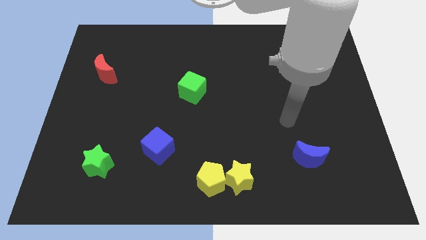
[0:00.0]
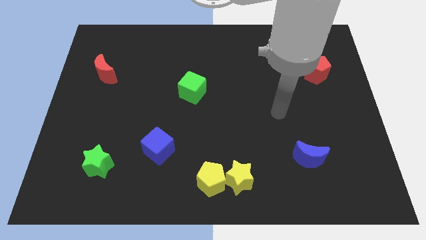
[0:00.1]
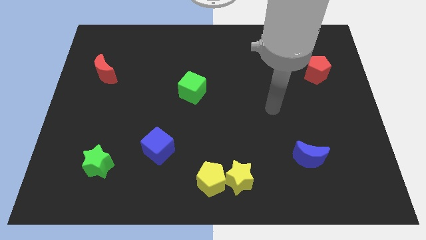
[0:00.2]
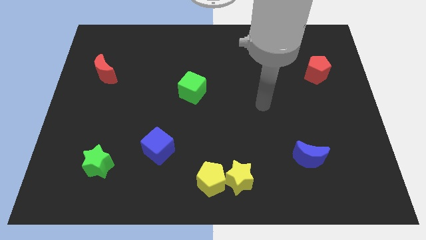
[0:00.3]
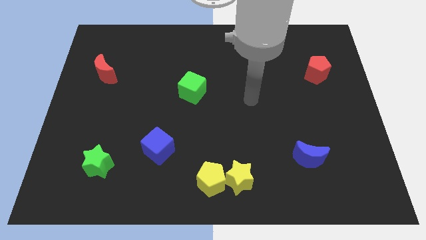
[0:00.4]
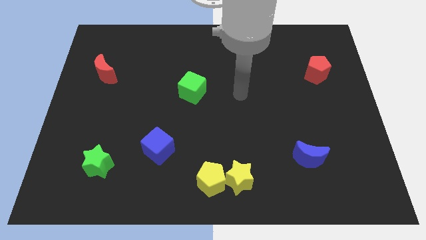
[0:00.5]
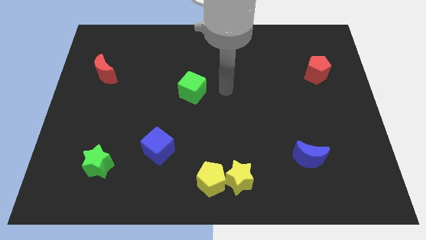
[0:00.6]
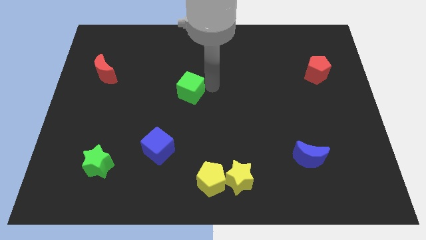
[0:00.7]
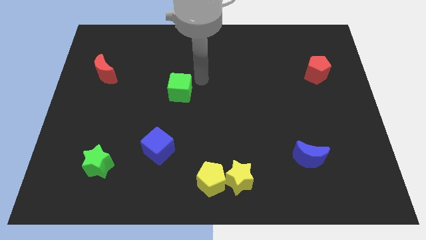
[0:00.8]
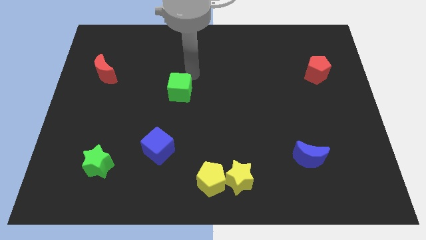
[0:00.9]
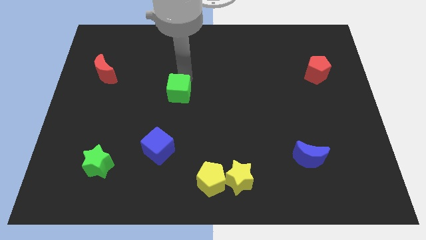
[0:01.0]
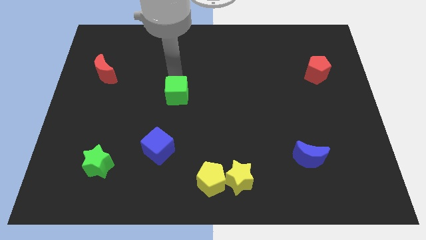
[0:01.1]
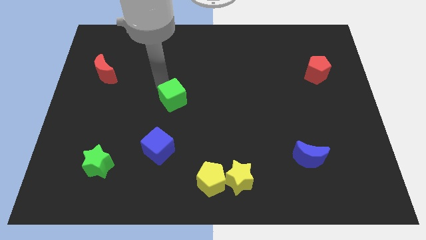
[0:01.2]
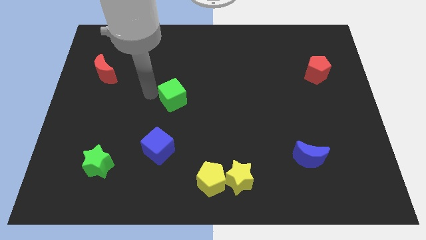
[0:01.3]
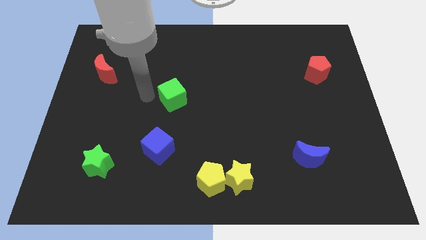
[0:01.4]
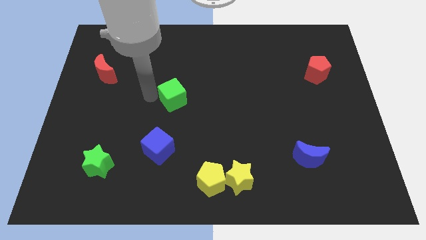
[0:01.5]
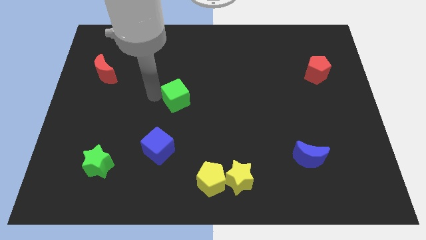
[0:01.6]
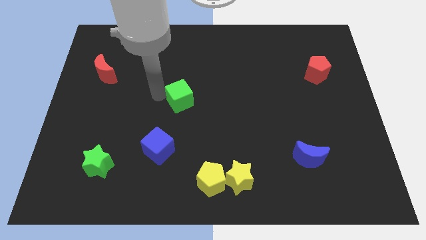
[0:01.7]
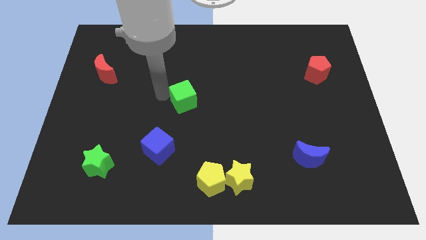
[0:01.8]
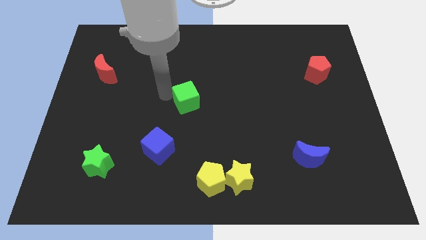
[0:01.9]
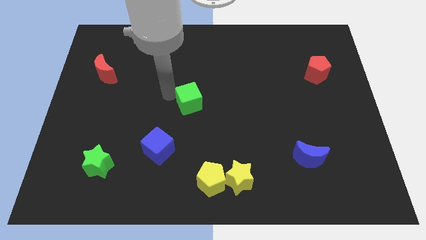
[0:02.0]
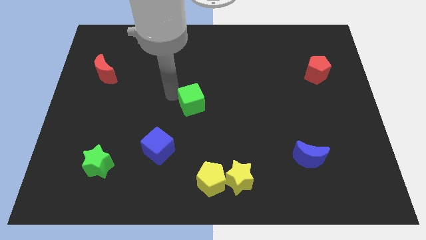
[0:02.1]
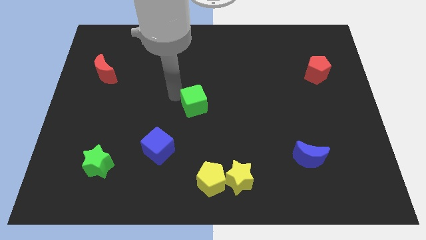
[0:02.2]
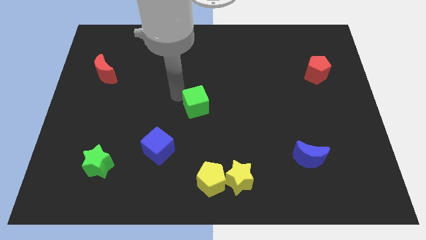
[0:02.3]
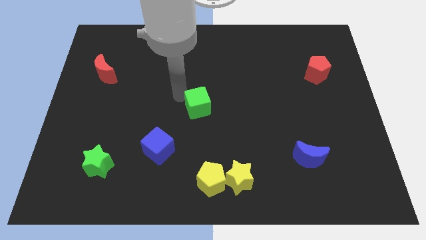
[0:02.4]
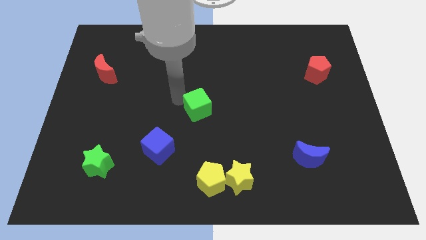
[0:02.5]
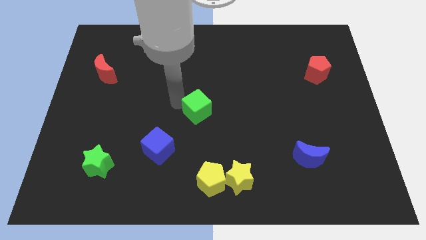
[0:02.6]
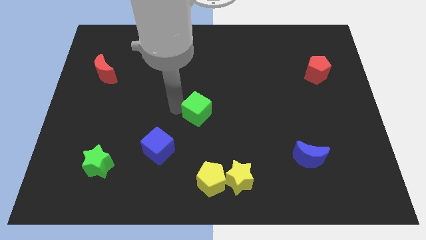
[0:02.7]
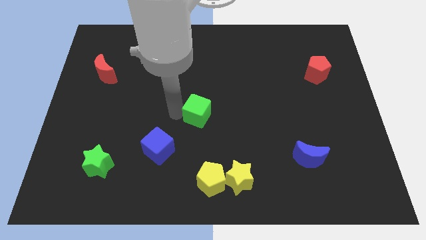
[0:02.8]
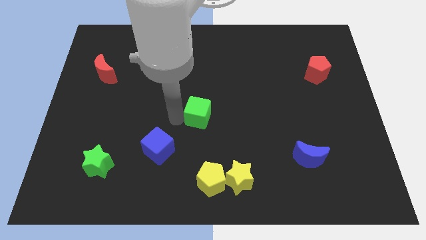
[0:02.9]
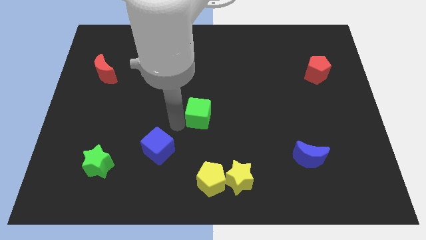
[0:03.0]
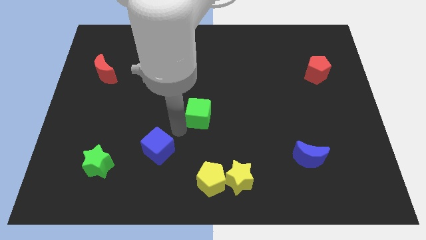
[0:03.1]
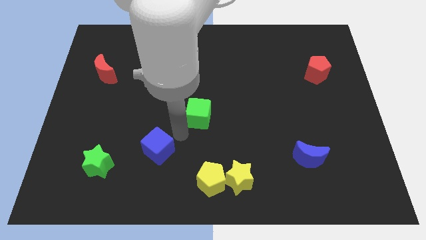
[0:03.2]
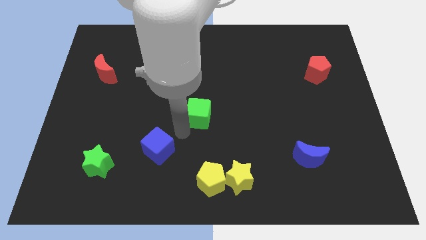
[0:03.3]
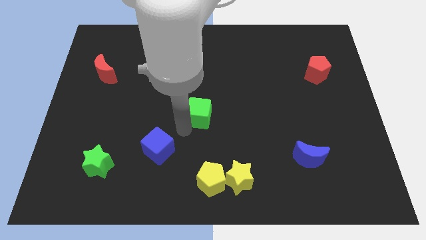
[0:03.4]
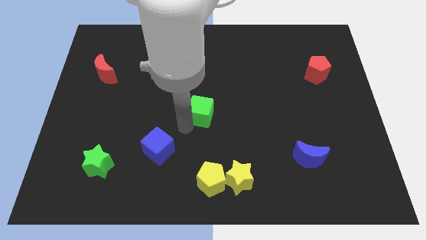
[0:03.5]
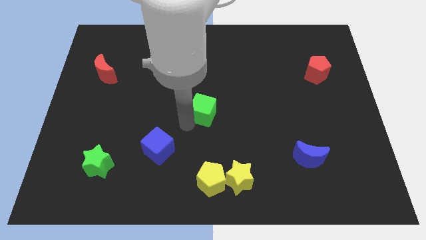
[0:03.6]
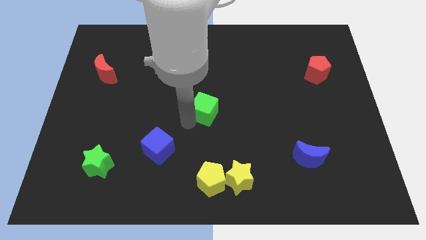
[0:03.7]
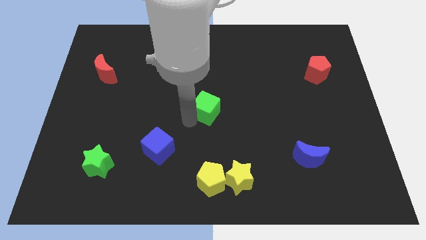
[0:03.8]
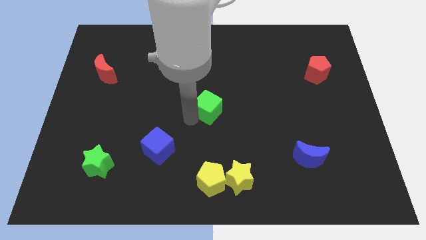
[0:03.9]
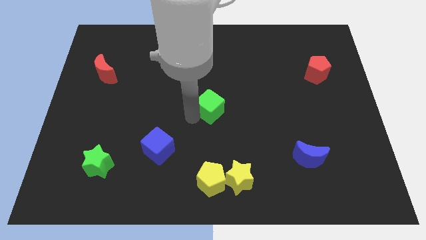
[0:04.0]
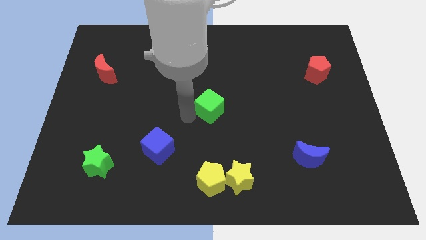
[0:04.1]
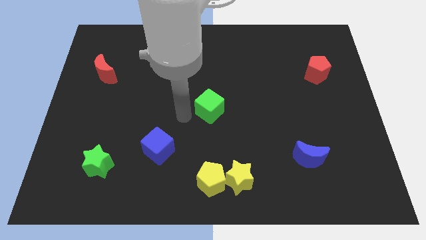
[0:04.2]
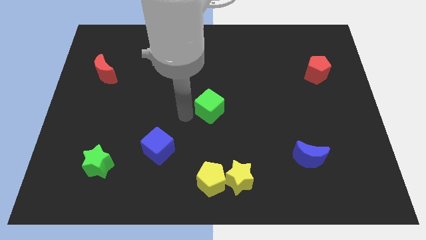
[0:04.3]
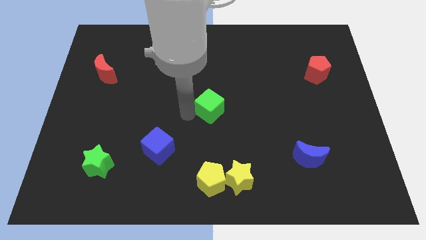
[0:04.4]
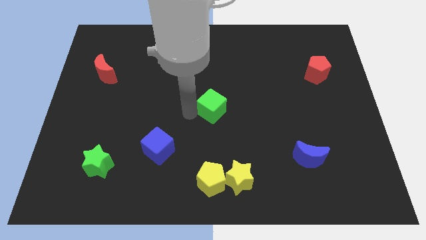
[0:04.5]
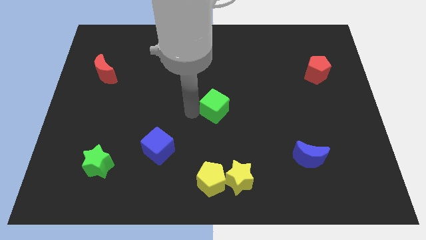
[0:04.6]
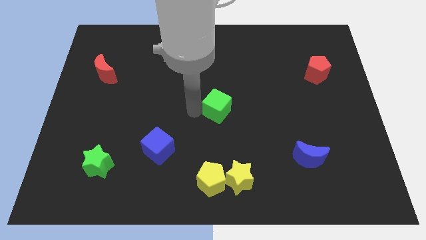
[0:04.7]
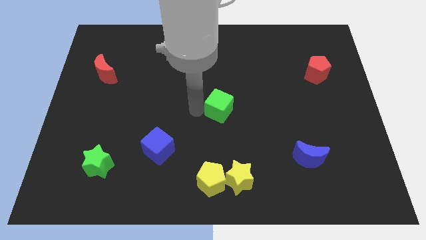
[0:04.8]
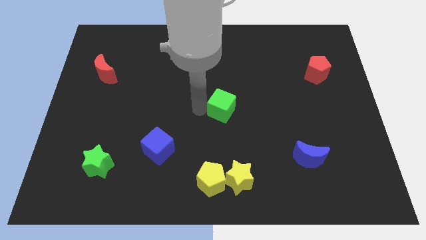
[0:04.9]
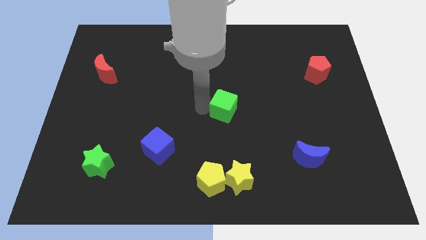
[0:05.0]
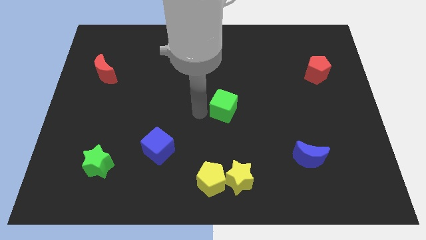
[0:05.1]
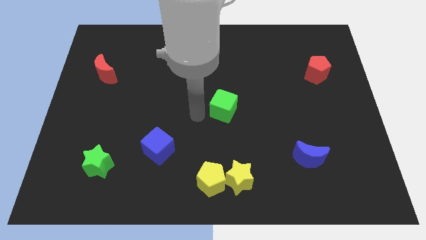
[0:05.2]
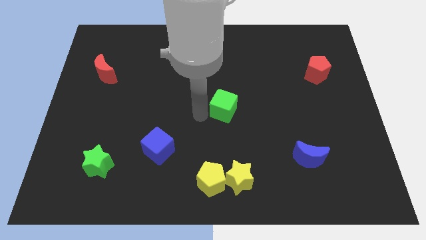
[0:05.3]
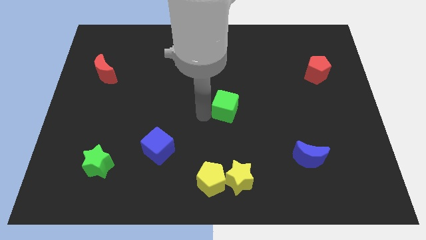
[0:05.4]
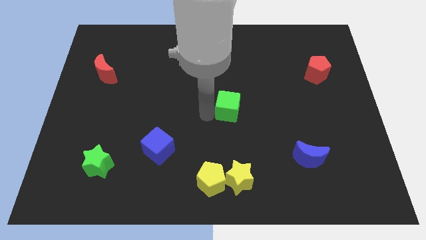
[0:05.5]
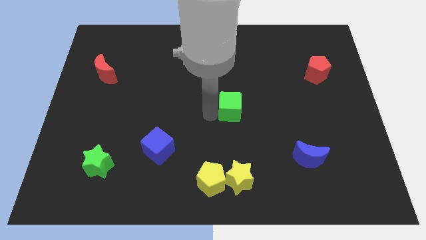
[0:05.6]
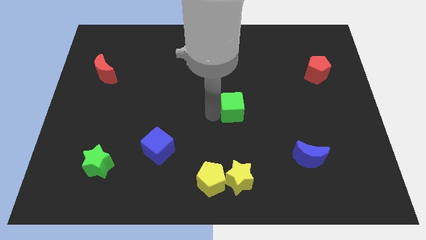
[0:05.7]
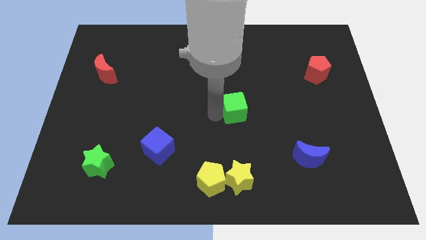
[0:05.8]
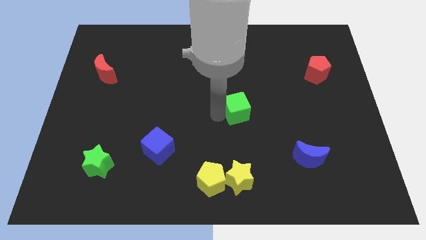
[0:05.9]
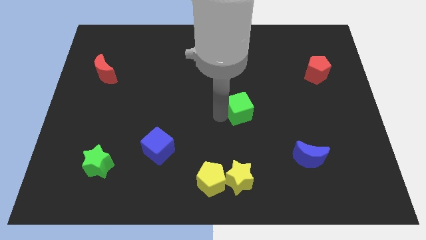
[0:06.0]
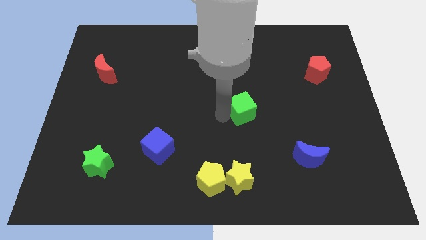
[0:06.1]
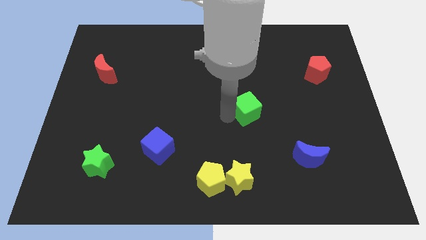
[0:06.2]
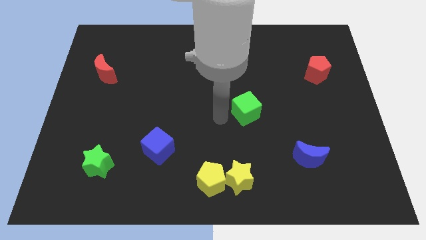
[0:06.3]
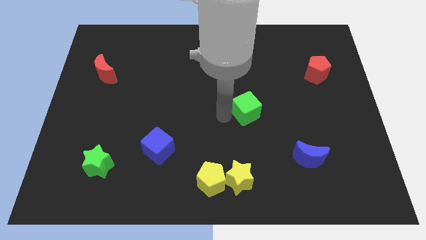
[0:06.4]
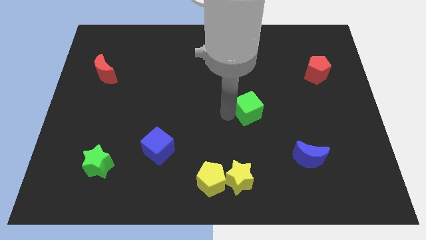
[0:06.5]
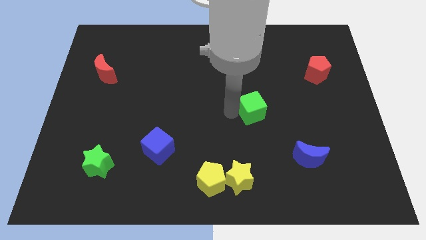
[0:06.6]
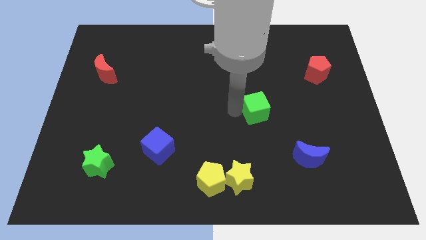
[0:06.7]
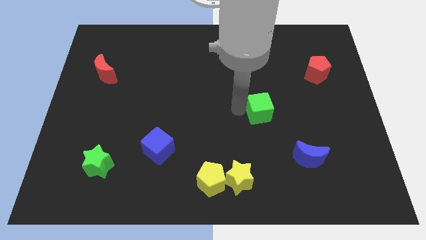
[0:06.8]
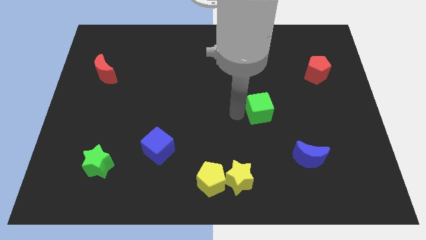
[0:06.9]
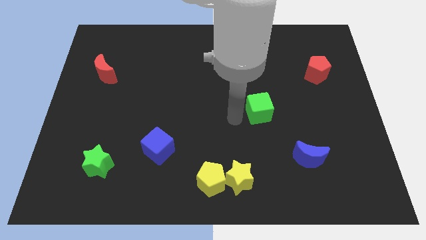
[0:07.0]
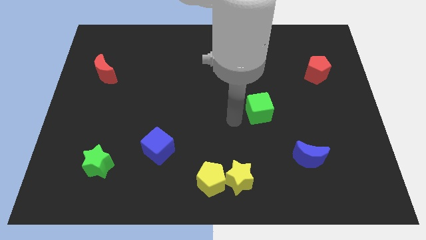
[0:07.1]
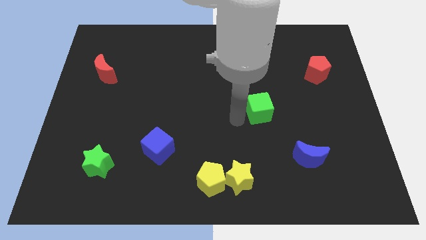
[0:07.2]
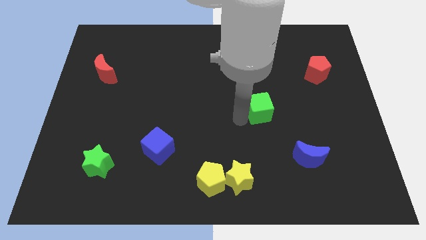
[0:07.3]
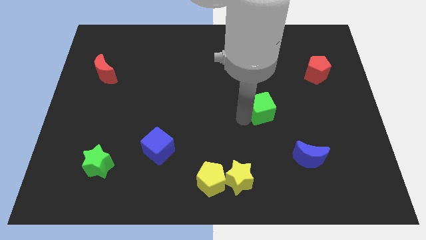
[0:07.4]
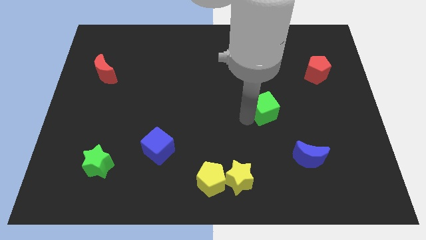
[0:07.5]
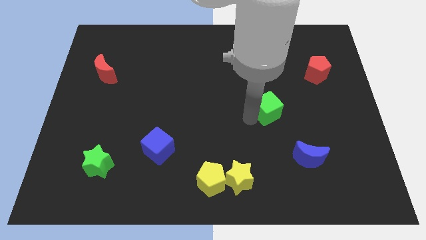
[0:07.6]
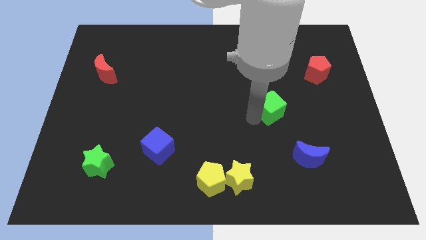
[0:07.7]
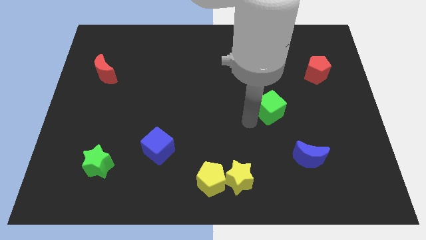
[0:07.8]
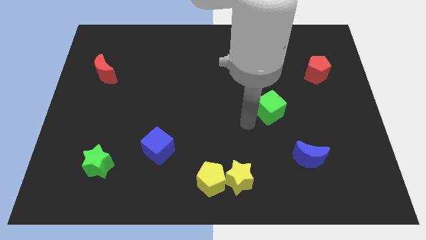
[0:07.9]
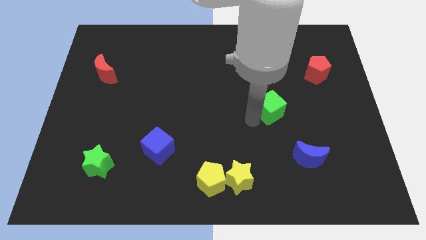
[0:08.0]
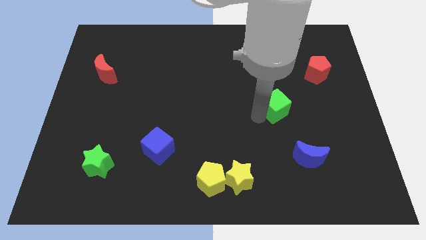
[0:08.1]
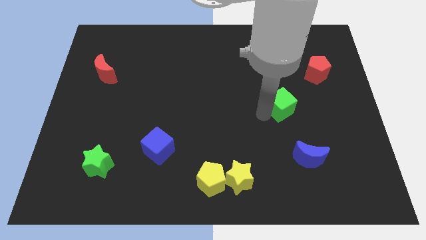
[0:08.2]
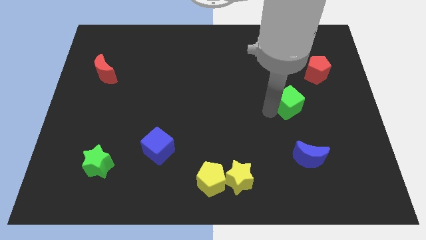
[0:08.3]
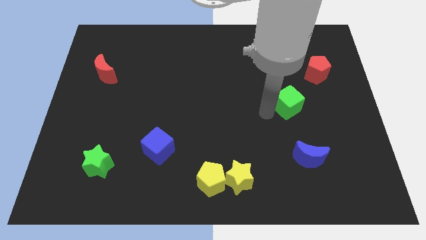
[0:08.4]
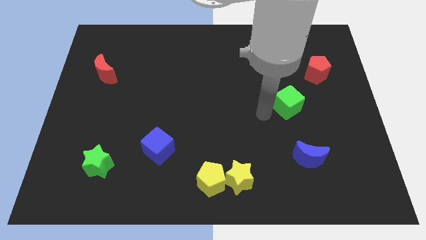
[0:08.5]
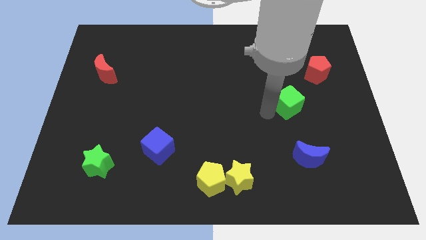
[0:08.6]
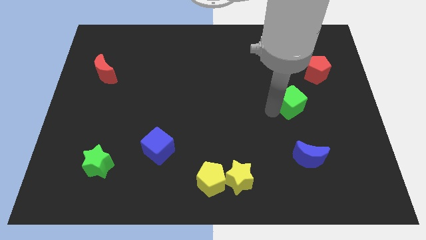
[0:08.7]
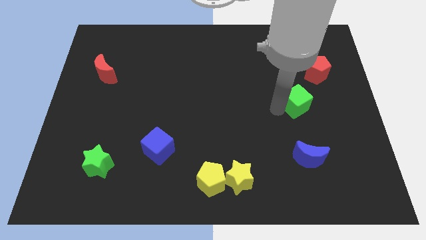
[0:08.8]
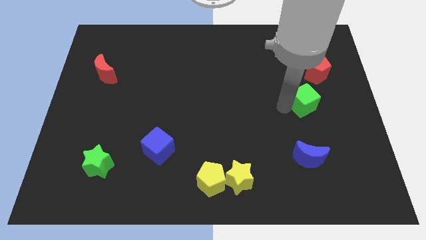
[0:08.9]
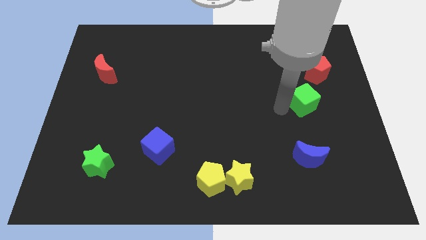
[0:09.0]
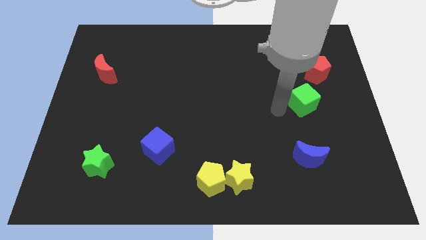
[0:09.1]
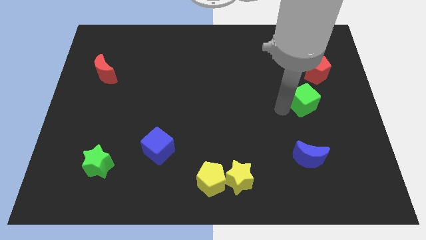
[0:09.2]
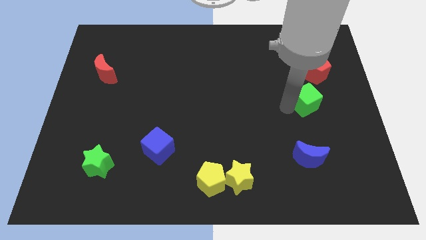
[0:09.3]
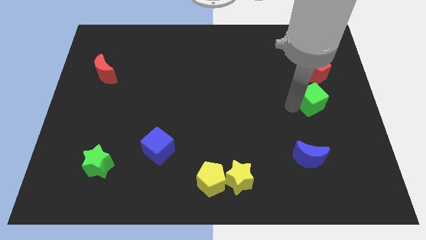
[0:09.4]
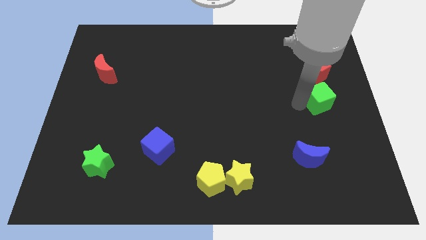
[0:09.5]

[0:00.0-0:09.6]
push the green cube to the right side of the board
